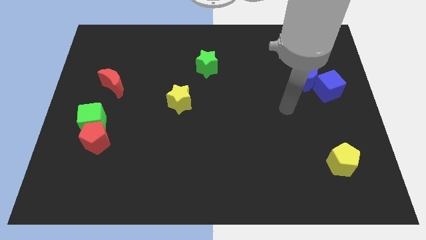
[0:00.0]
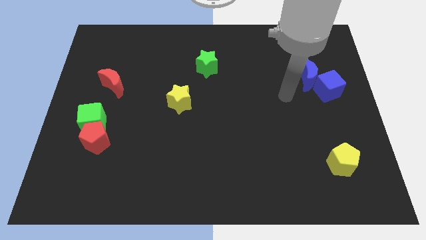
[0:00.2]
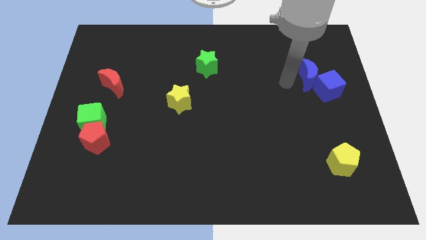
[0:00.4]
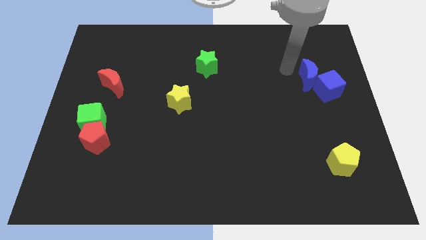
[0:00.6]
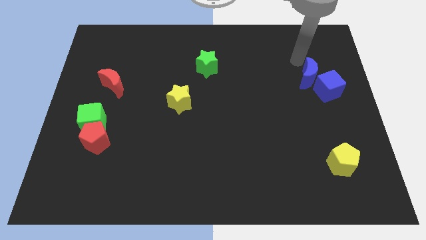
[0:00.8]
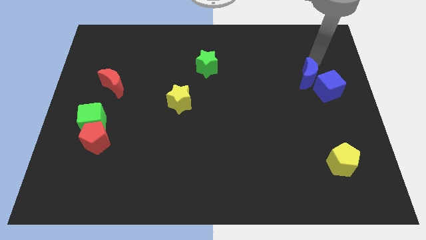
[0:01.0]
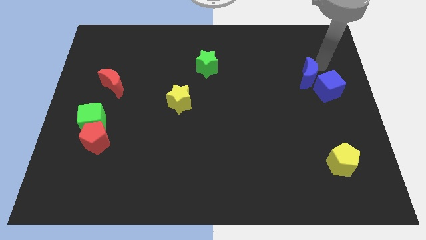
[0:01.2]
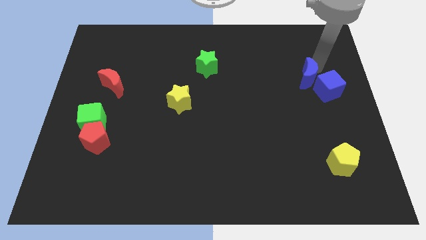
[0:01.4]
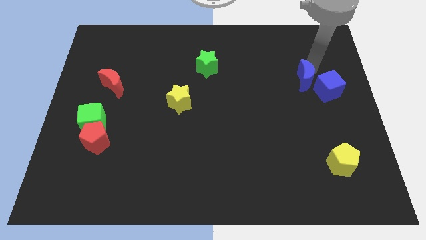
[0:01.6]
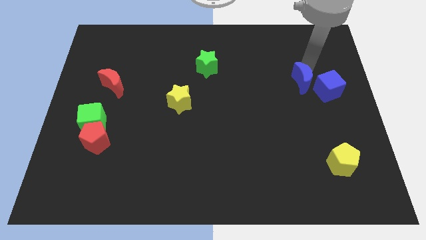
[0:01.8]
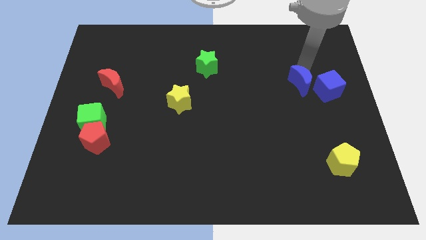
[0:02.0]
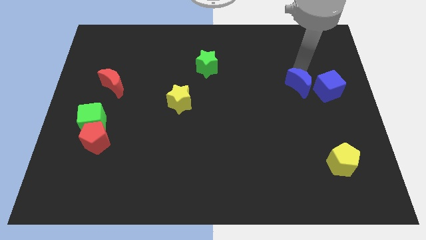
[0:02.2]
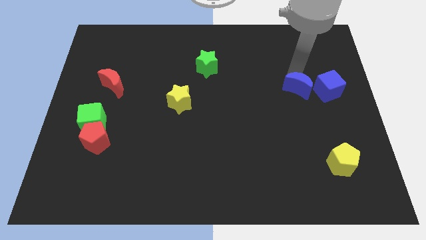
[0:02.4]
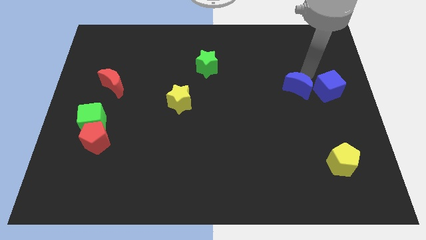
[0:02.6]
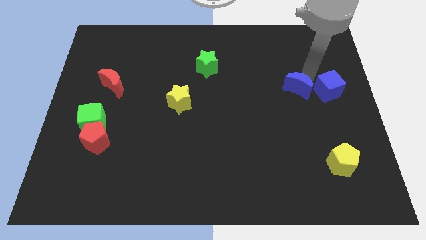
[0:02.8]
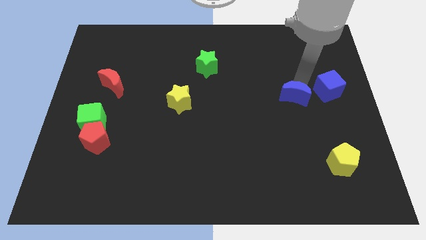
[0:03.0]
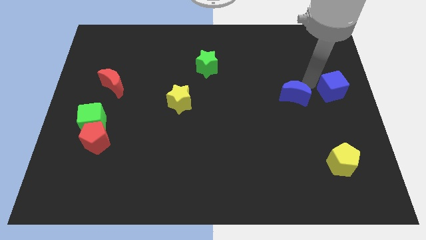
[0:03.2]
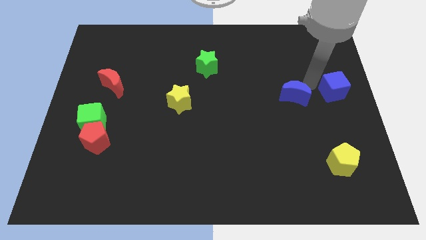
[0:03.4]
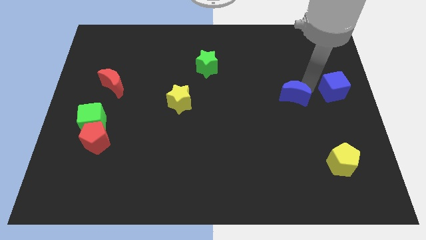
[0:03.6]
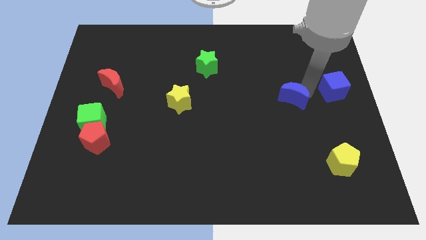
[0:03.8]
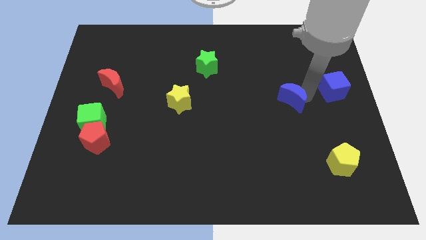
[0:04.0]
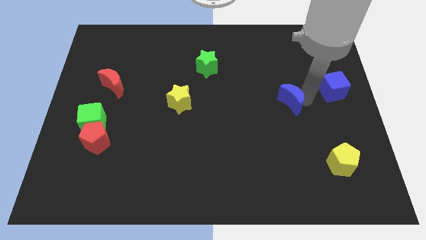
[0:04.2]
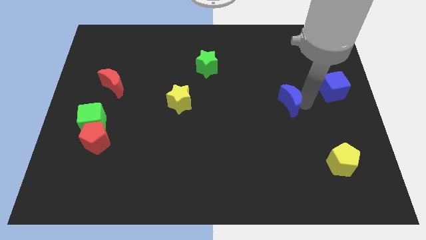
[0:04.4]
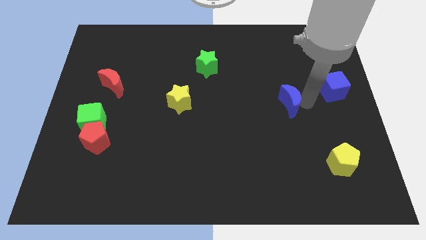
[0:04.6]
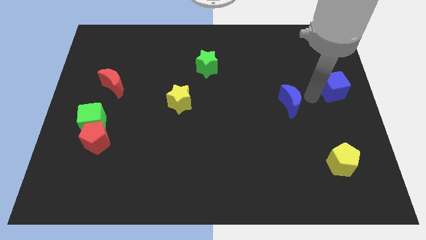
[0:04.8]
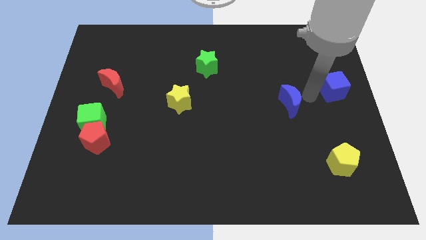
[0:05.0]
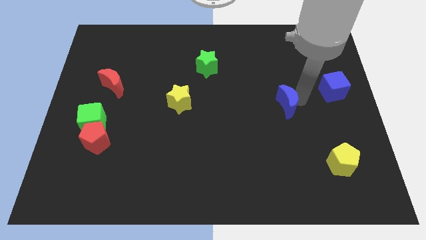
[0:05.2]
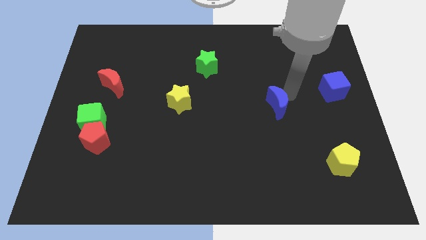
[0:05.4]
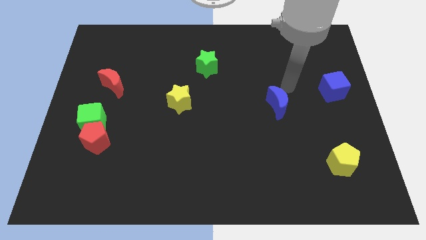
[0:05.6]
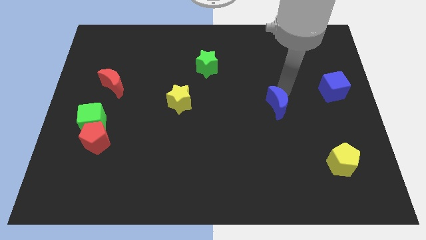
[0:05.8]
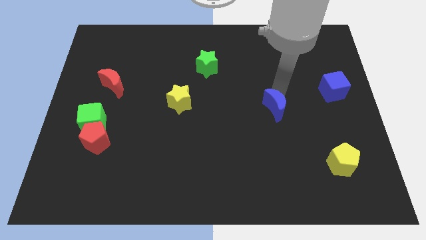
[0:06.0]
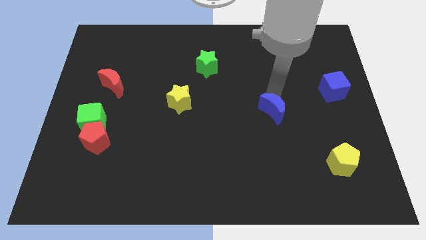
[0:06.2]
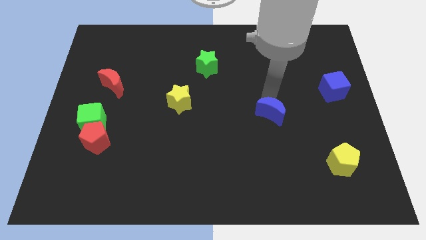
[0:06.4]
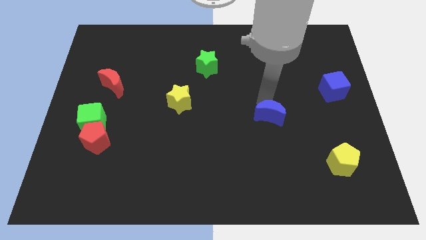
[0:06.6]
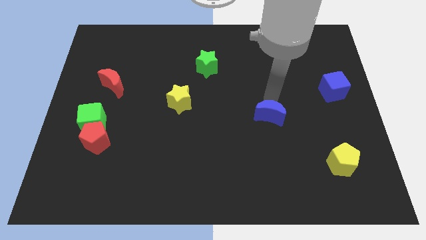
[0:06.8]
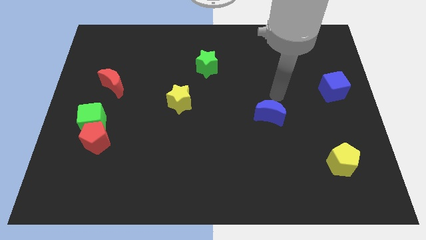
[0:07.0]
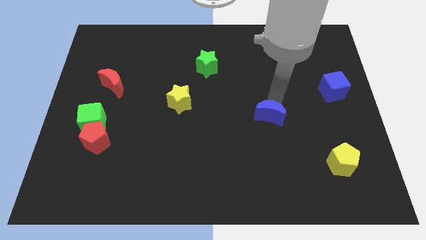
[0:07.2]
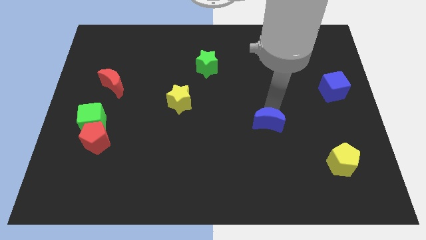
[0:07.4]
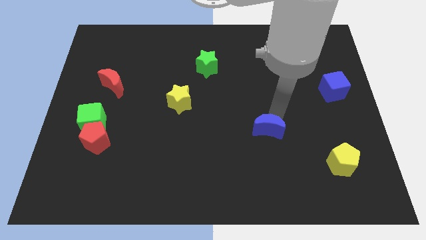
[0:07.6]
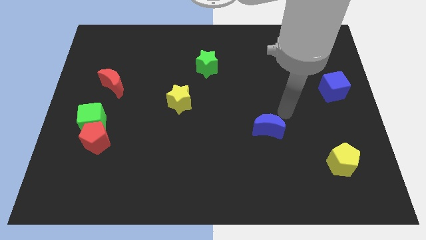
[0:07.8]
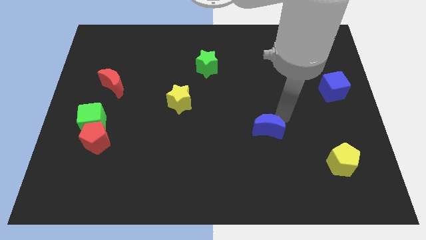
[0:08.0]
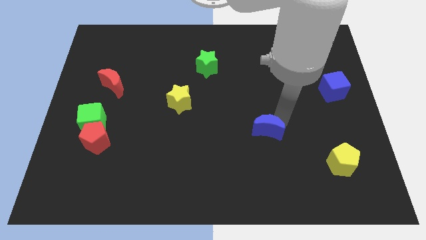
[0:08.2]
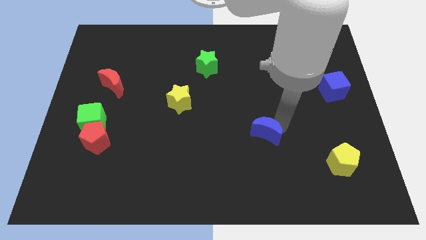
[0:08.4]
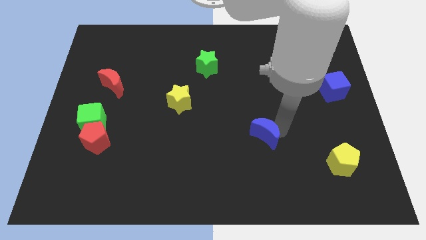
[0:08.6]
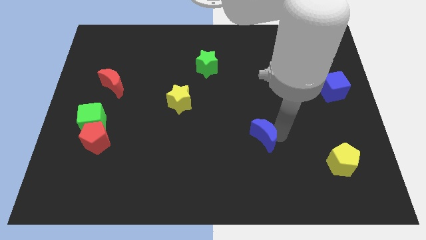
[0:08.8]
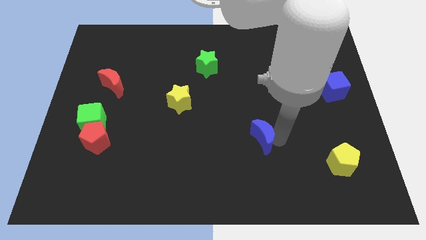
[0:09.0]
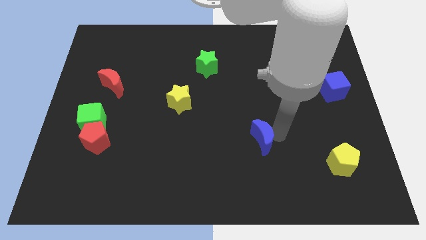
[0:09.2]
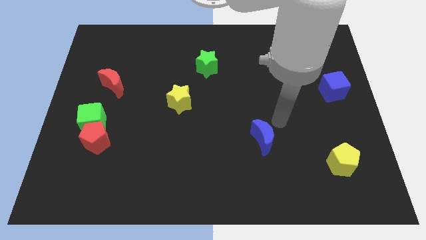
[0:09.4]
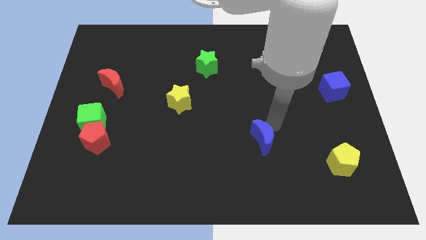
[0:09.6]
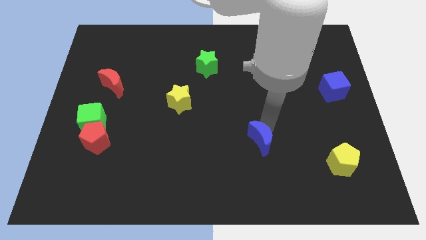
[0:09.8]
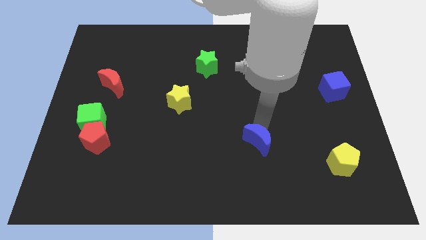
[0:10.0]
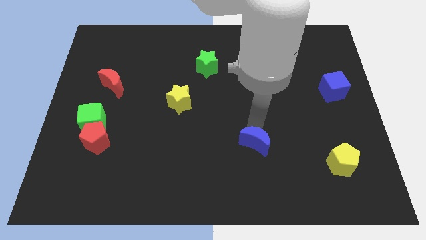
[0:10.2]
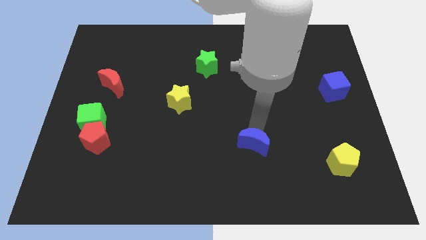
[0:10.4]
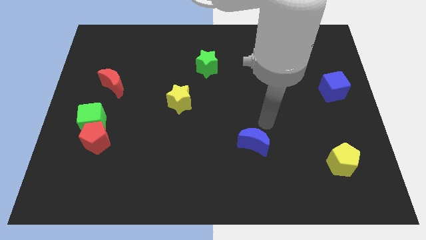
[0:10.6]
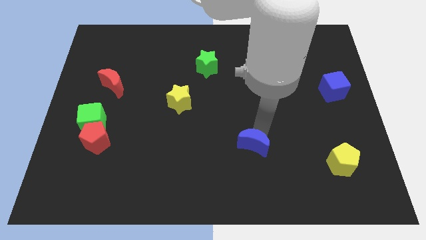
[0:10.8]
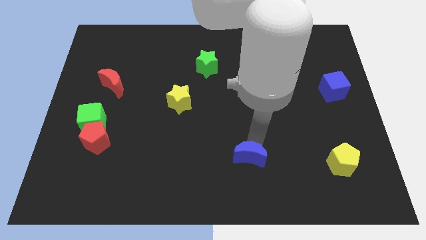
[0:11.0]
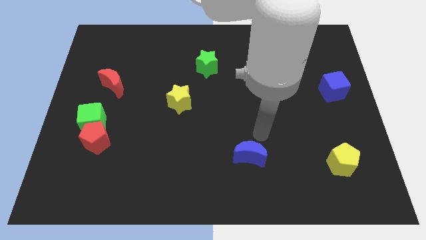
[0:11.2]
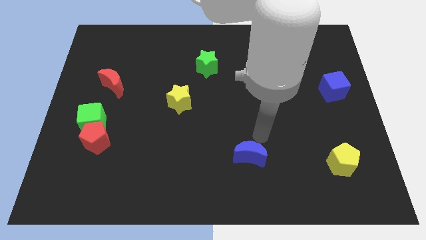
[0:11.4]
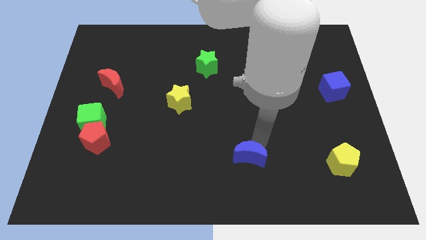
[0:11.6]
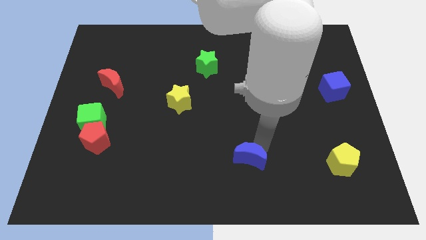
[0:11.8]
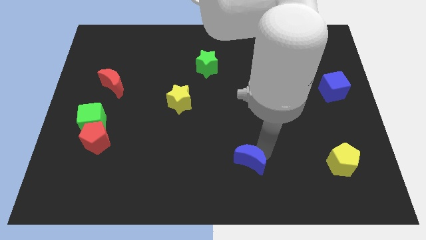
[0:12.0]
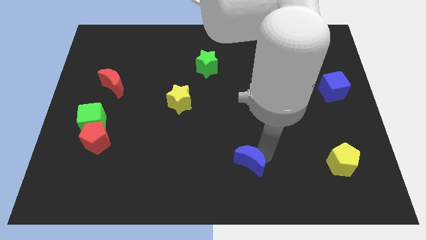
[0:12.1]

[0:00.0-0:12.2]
put the blue moon to the bottom
